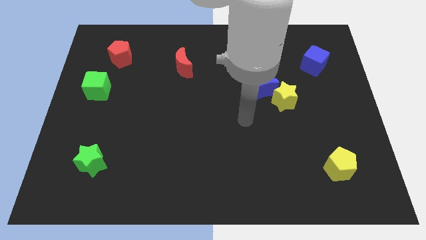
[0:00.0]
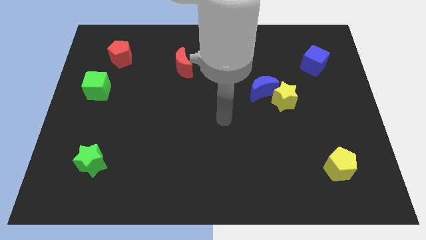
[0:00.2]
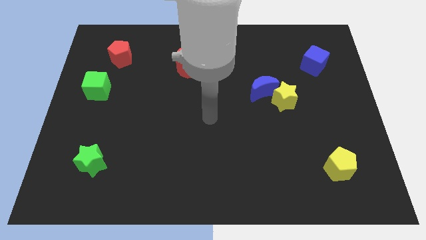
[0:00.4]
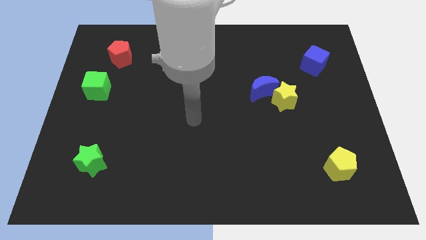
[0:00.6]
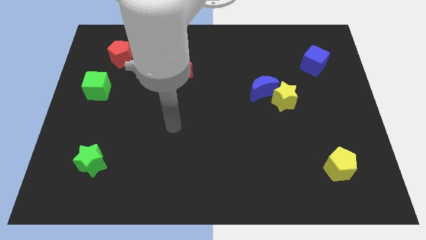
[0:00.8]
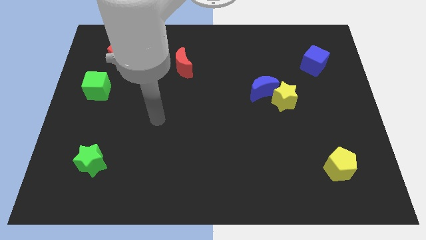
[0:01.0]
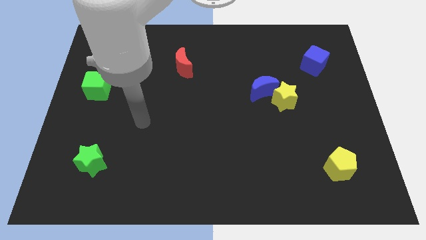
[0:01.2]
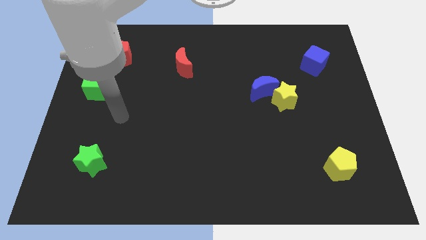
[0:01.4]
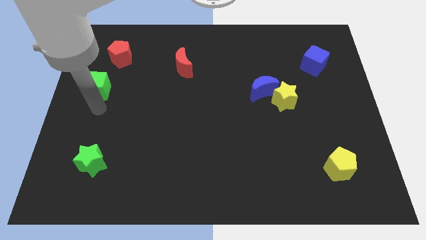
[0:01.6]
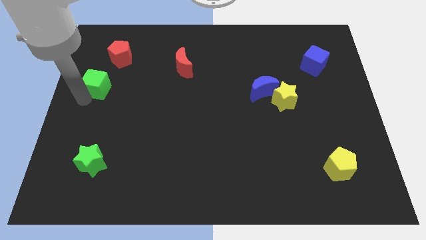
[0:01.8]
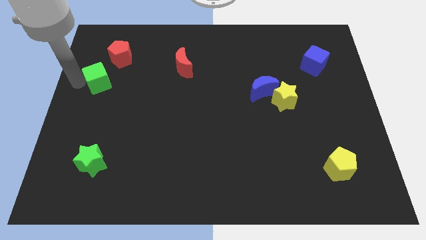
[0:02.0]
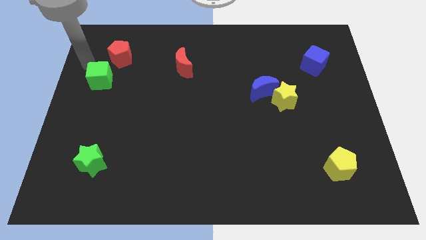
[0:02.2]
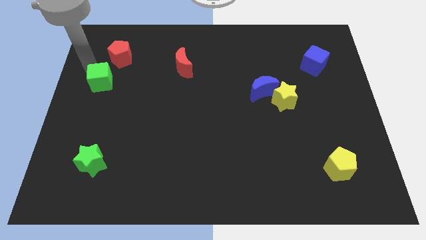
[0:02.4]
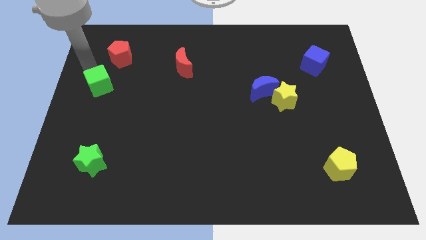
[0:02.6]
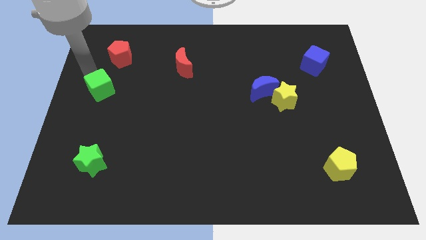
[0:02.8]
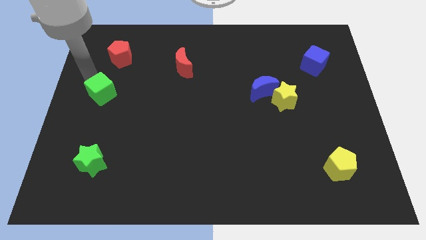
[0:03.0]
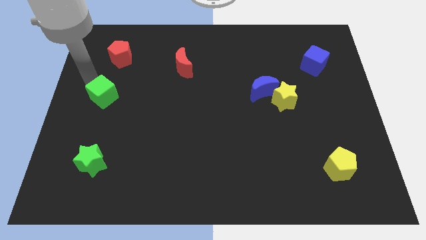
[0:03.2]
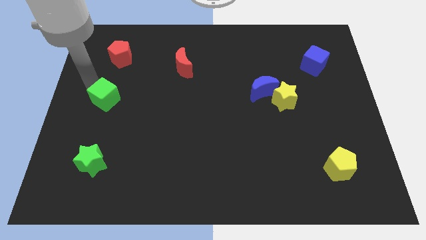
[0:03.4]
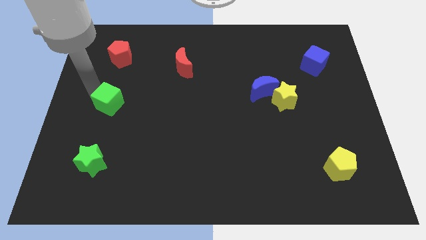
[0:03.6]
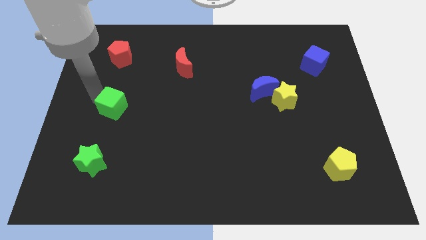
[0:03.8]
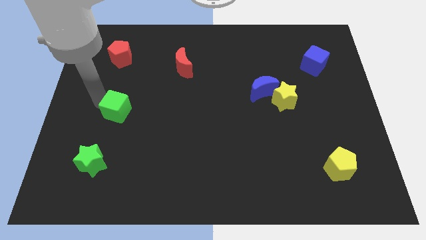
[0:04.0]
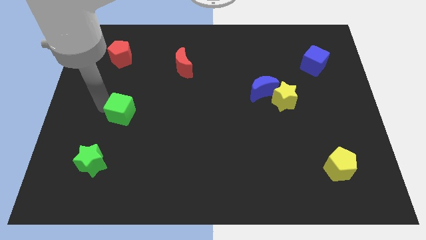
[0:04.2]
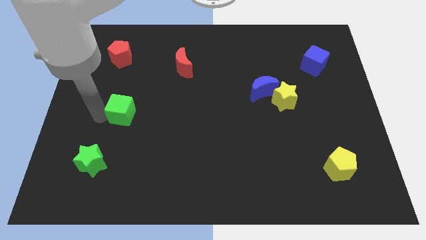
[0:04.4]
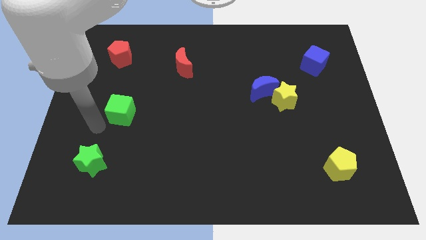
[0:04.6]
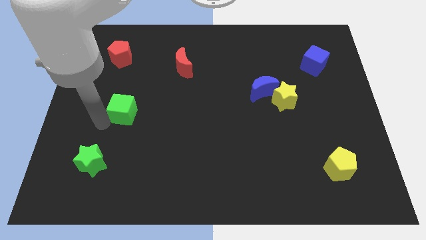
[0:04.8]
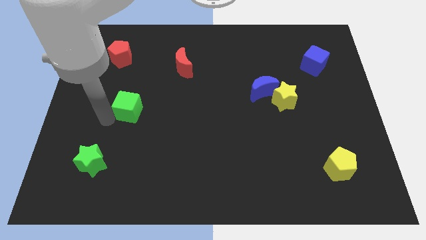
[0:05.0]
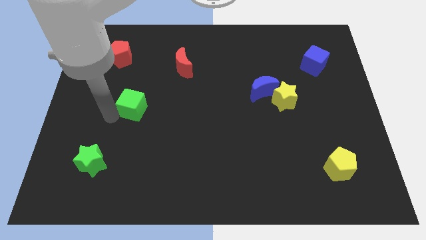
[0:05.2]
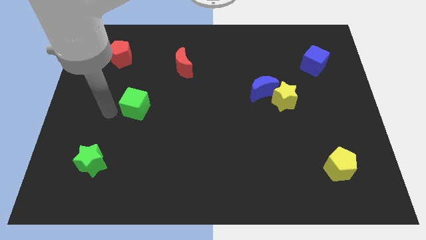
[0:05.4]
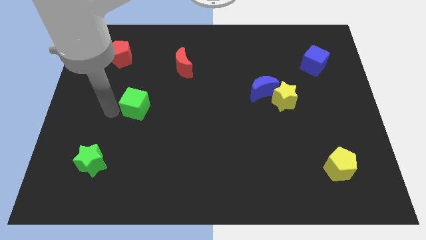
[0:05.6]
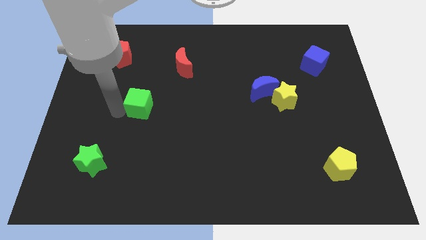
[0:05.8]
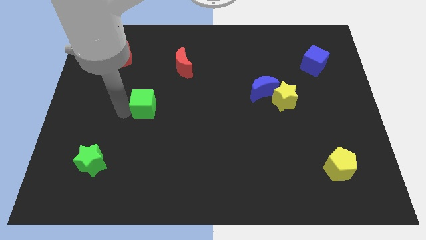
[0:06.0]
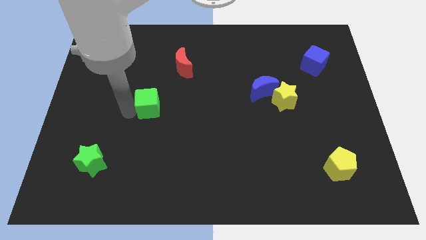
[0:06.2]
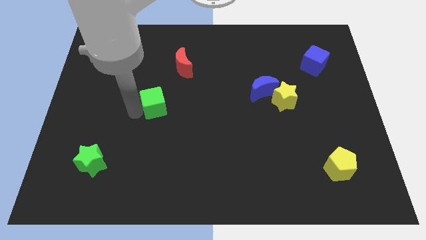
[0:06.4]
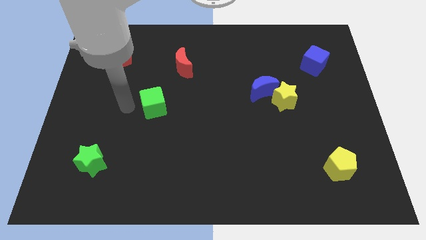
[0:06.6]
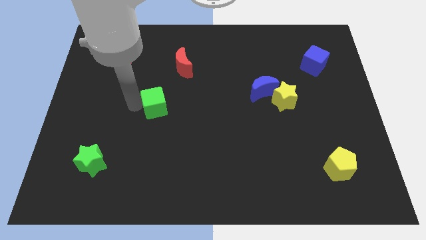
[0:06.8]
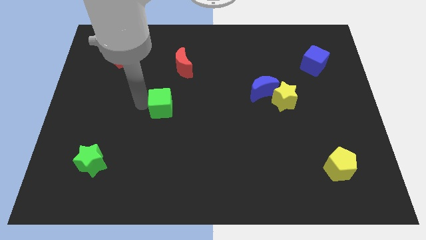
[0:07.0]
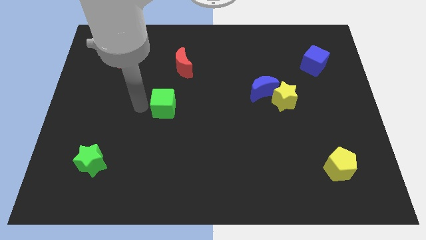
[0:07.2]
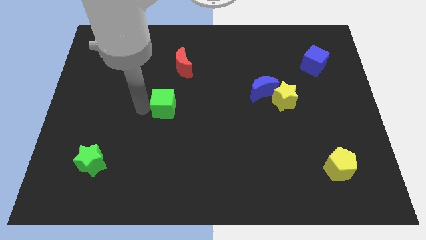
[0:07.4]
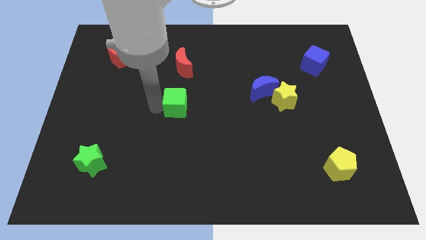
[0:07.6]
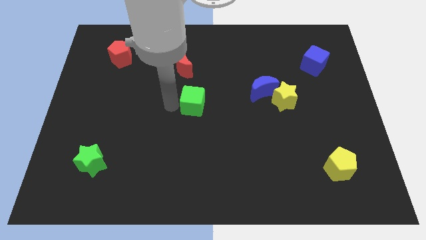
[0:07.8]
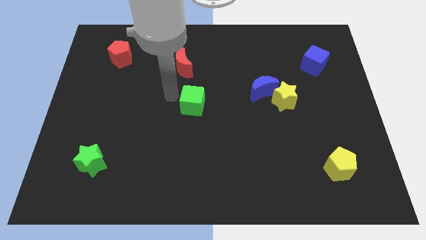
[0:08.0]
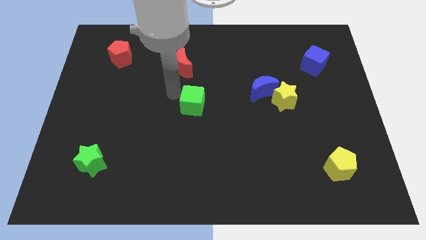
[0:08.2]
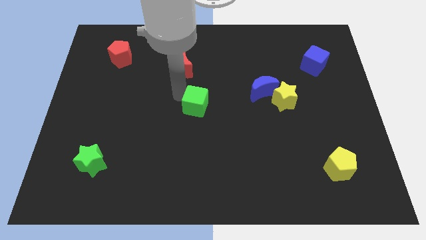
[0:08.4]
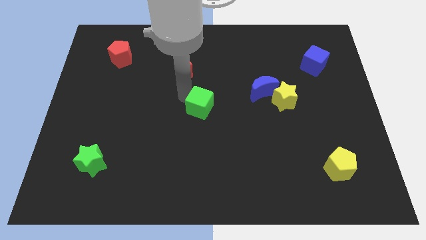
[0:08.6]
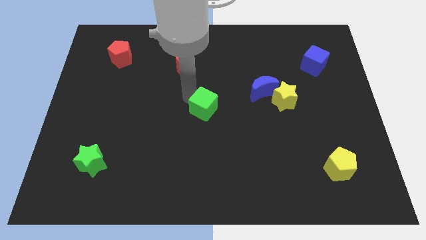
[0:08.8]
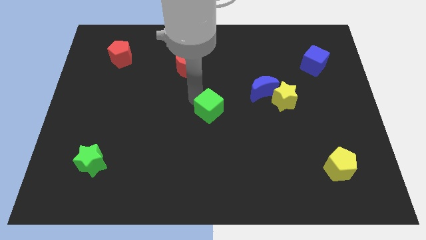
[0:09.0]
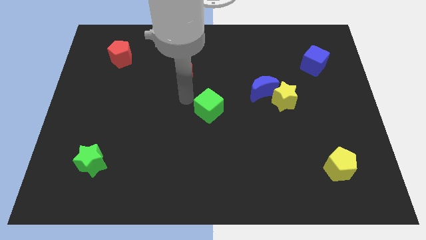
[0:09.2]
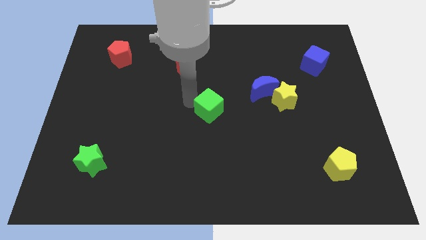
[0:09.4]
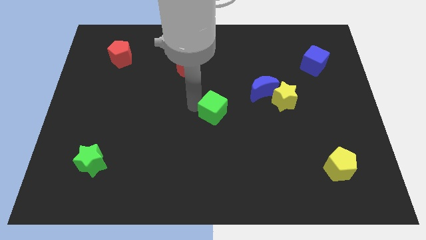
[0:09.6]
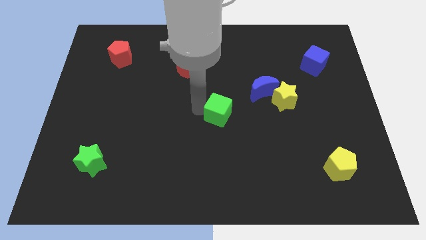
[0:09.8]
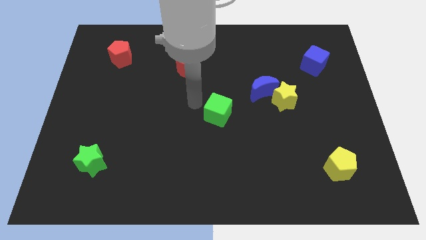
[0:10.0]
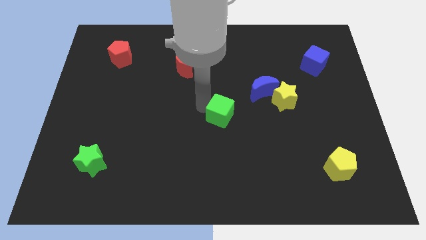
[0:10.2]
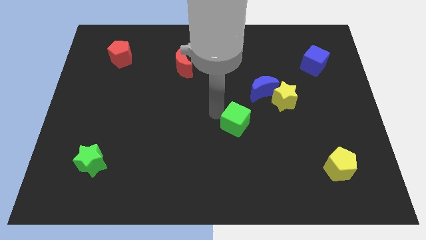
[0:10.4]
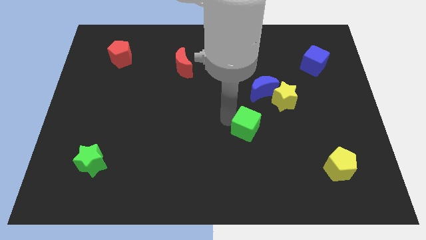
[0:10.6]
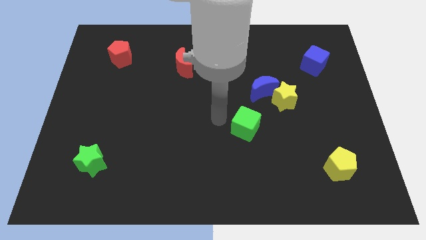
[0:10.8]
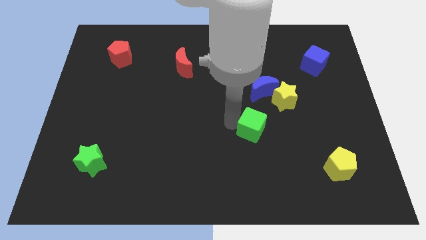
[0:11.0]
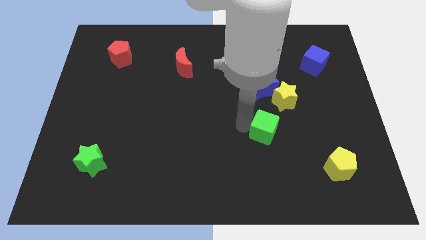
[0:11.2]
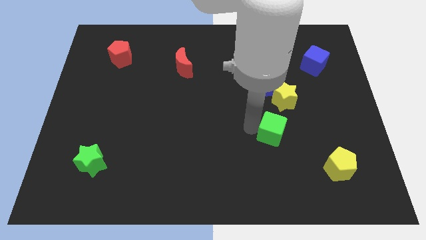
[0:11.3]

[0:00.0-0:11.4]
push the green cube to the bottom side of the yellow star

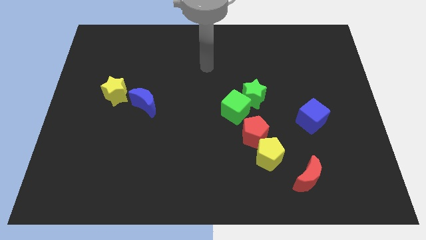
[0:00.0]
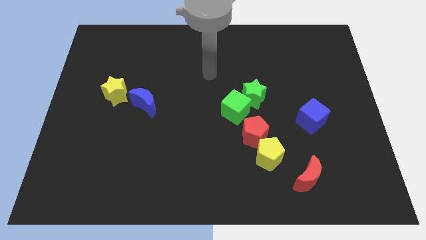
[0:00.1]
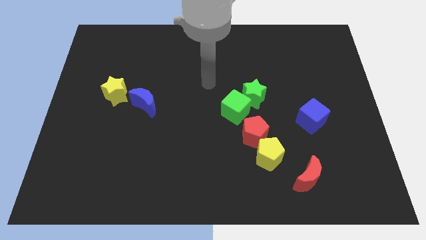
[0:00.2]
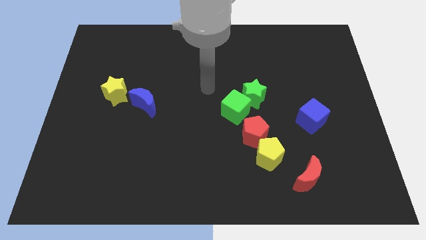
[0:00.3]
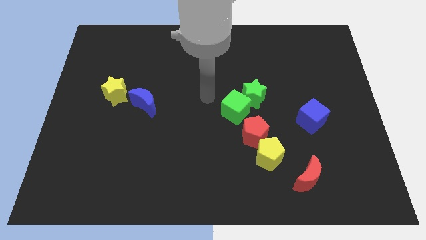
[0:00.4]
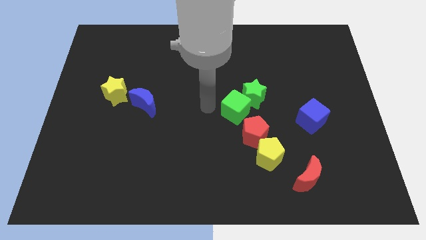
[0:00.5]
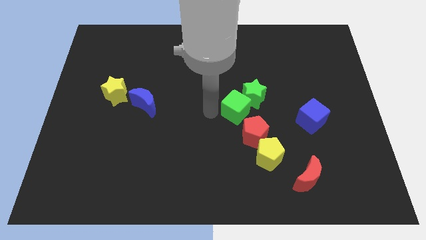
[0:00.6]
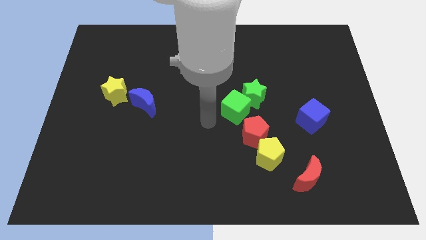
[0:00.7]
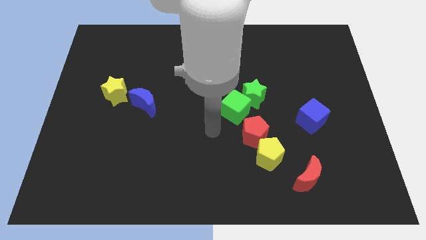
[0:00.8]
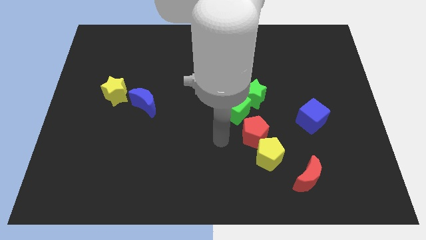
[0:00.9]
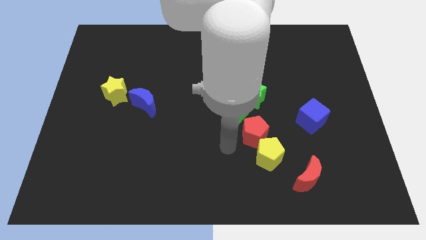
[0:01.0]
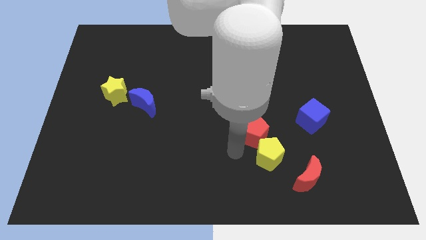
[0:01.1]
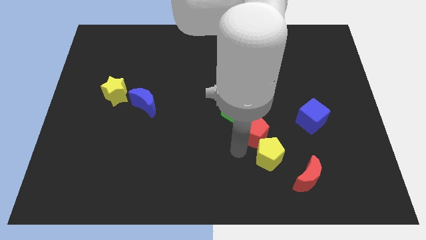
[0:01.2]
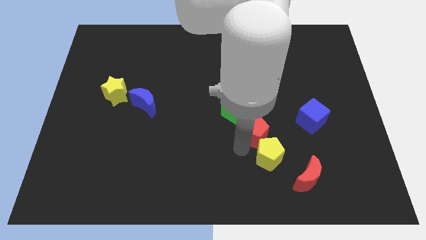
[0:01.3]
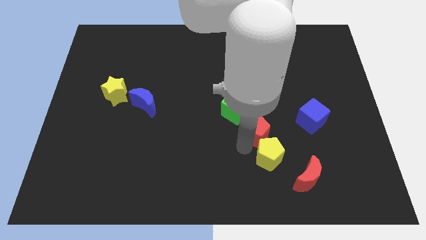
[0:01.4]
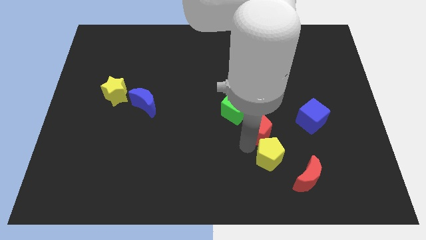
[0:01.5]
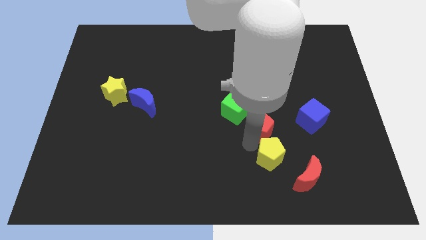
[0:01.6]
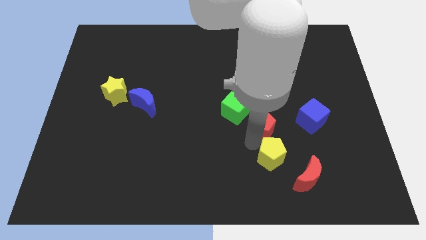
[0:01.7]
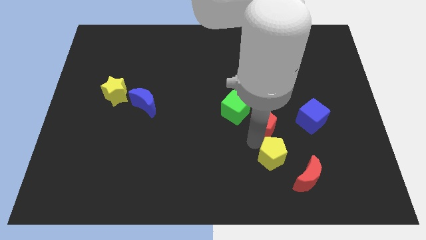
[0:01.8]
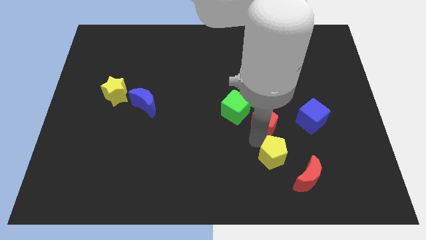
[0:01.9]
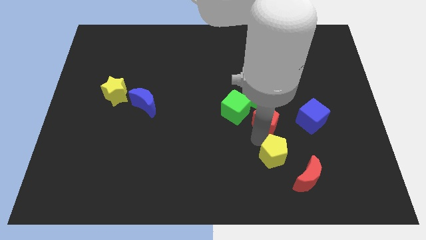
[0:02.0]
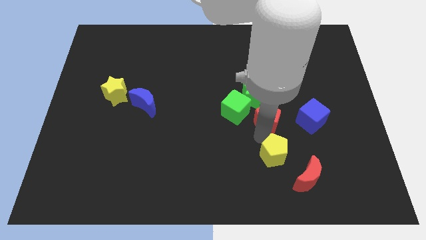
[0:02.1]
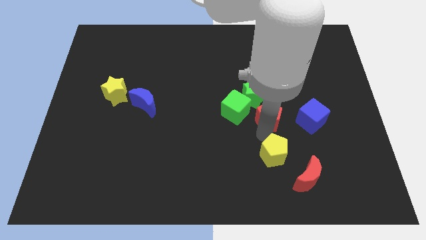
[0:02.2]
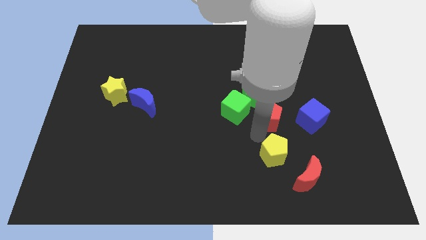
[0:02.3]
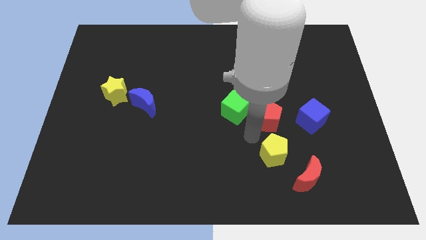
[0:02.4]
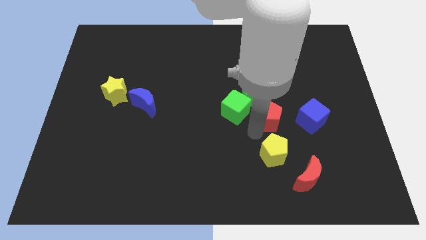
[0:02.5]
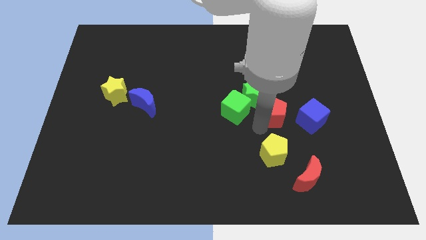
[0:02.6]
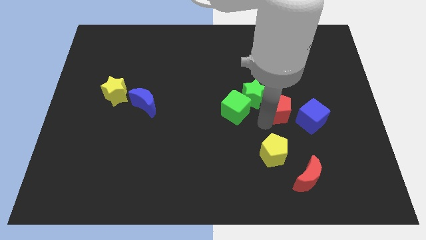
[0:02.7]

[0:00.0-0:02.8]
push the red pentagon to the top left of the blue cube
